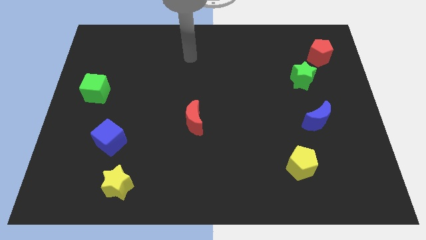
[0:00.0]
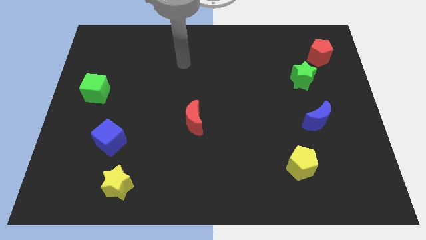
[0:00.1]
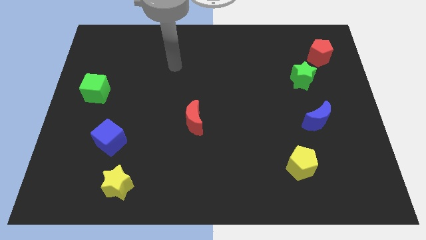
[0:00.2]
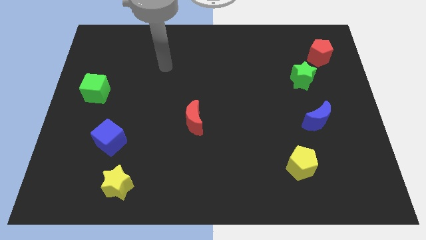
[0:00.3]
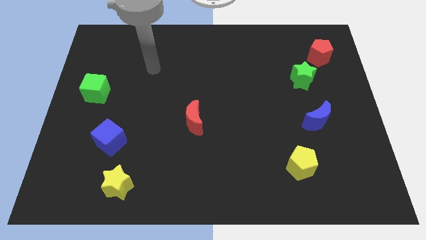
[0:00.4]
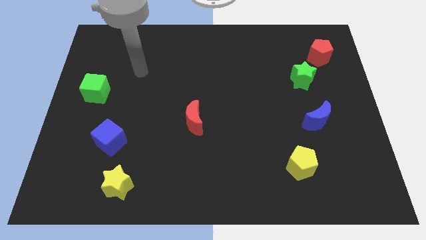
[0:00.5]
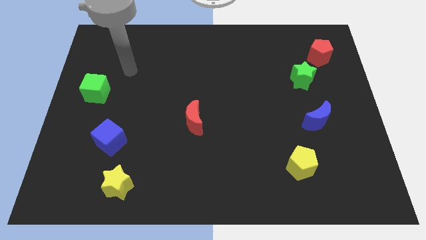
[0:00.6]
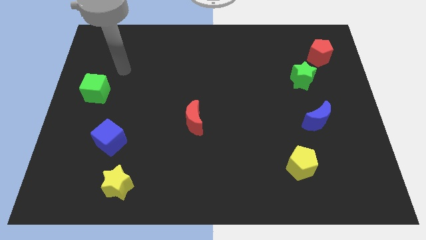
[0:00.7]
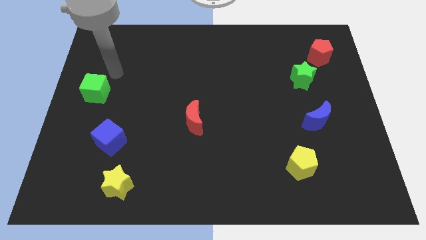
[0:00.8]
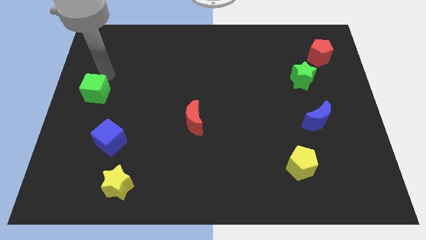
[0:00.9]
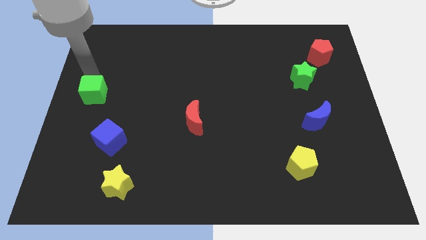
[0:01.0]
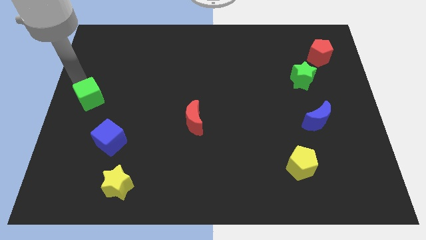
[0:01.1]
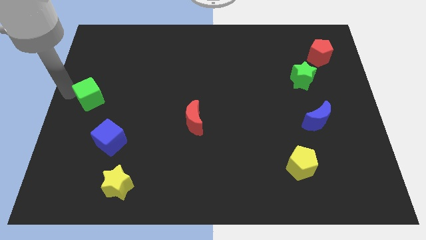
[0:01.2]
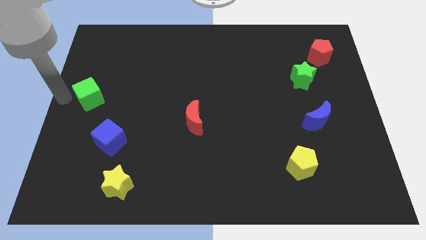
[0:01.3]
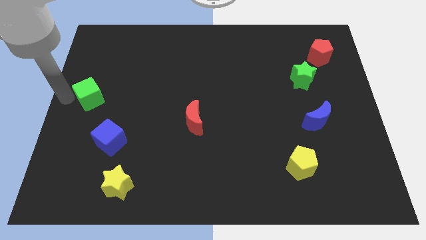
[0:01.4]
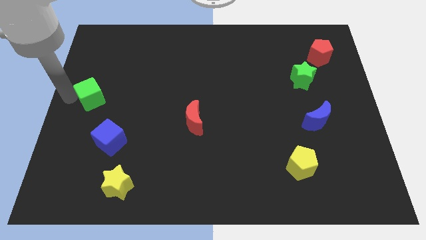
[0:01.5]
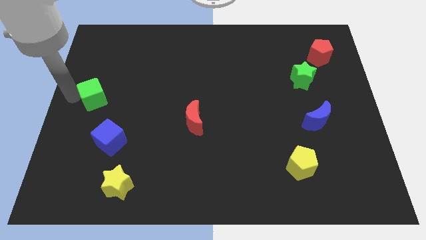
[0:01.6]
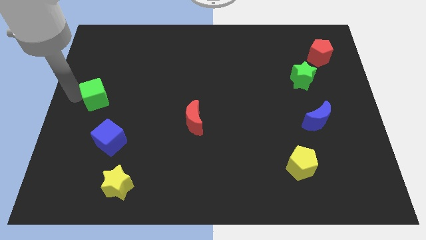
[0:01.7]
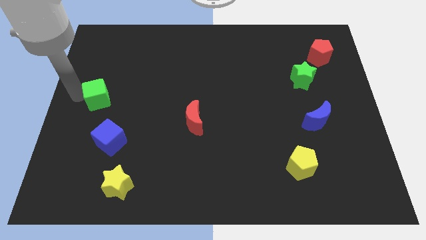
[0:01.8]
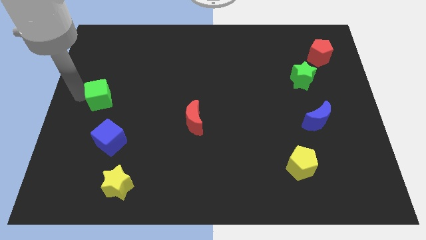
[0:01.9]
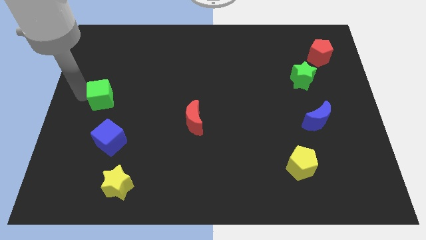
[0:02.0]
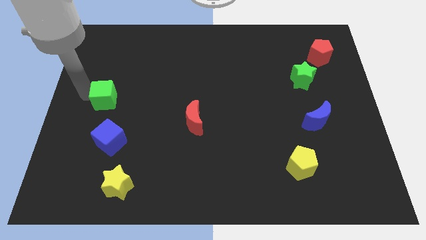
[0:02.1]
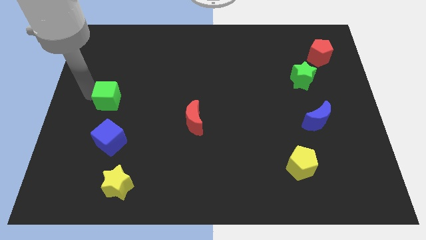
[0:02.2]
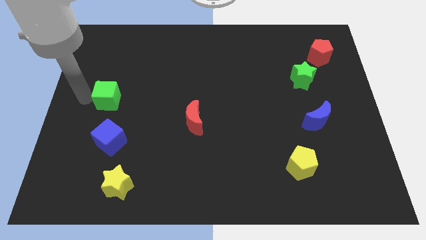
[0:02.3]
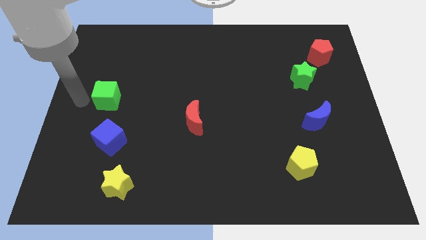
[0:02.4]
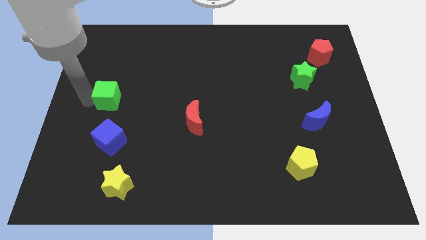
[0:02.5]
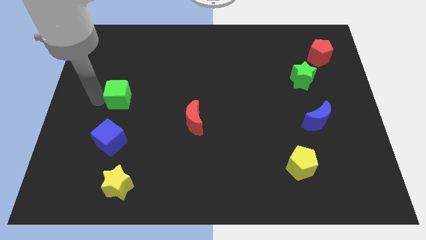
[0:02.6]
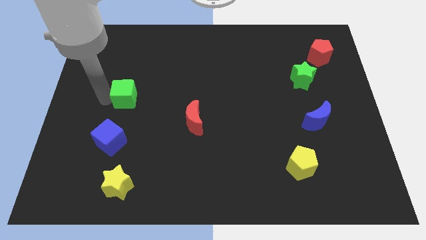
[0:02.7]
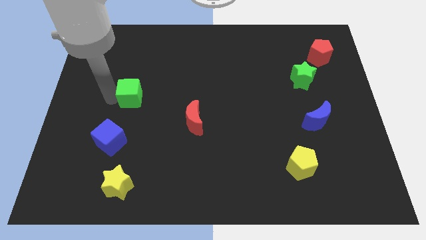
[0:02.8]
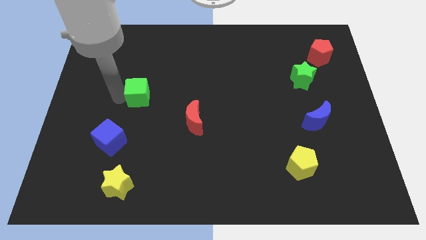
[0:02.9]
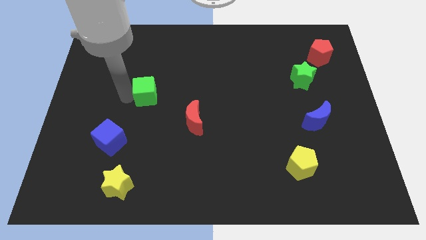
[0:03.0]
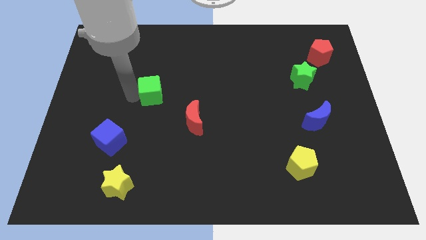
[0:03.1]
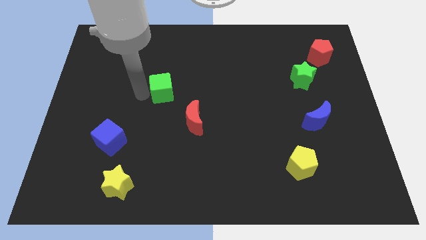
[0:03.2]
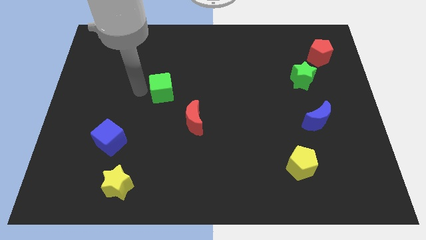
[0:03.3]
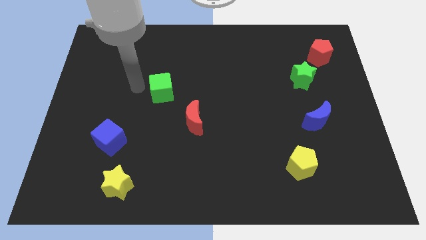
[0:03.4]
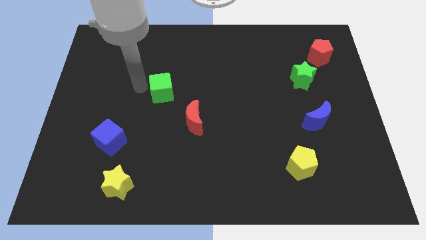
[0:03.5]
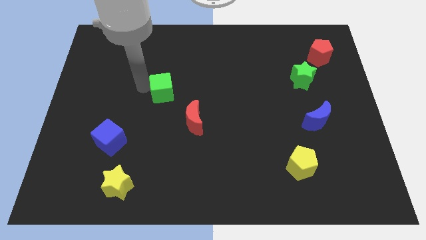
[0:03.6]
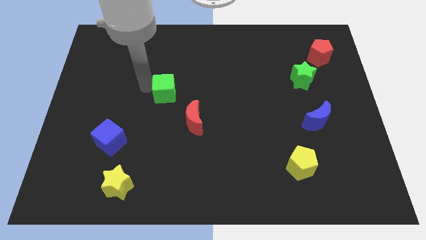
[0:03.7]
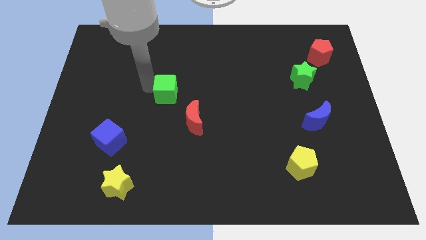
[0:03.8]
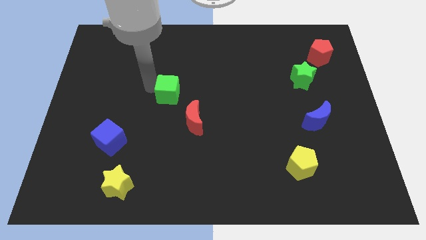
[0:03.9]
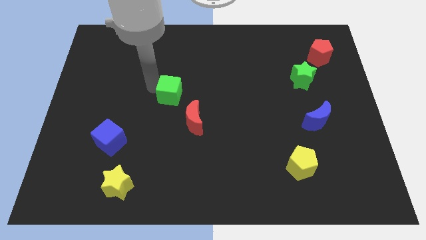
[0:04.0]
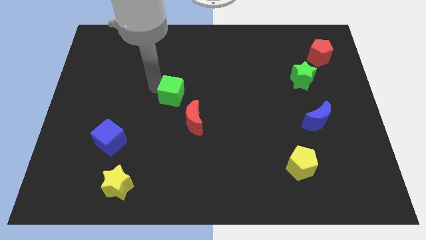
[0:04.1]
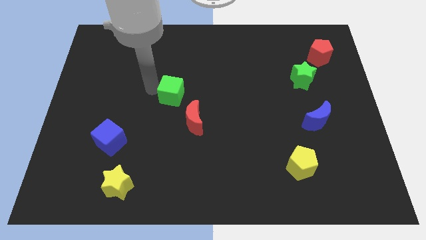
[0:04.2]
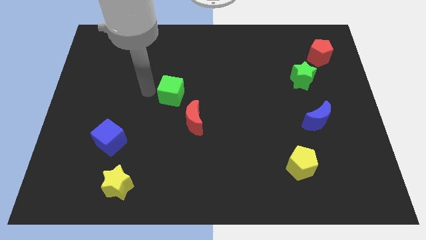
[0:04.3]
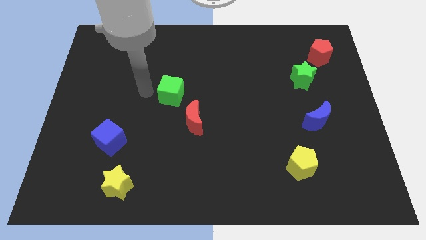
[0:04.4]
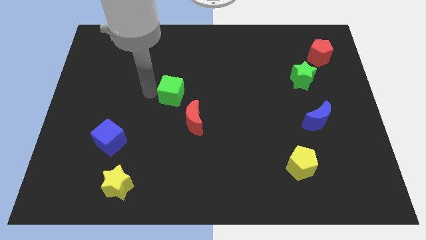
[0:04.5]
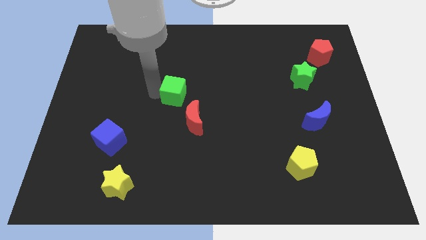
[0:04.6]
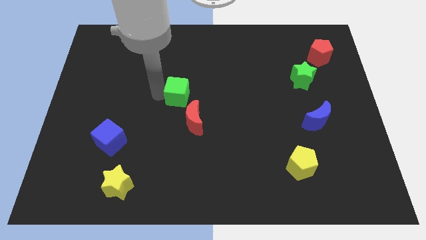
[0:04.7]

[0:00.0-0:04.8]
move the green cube right

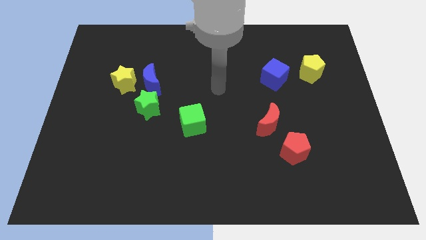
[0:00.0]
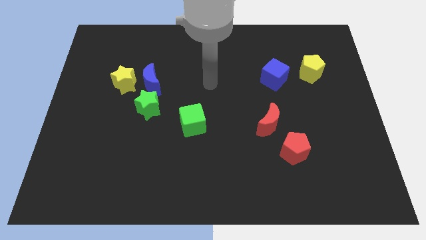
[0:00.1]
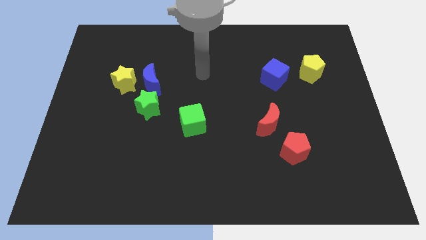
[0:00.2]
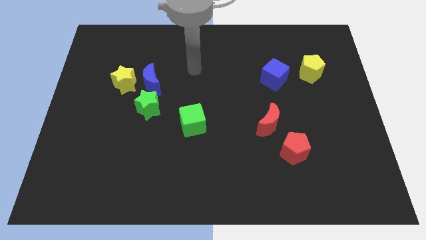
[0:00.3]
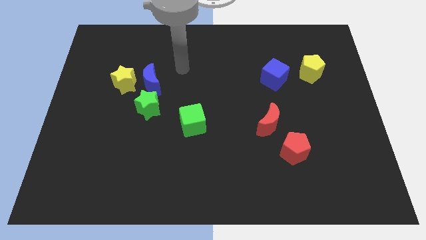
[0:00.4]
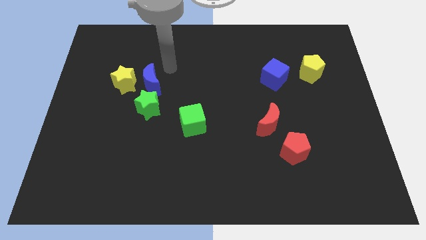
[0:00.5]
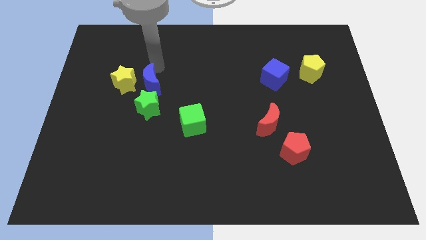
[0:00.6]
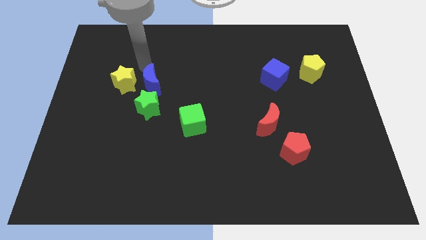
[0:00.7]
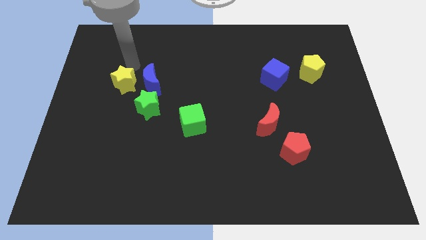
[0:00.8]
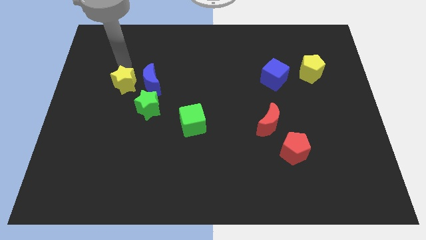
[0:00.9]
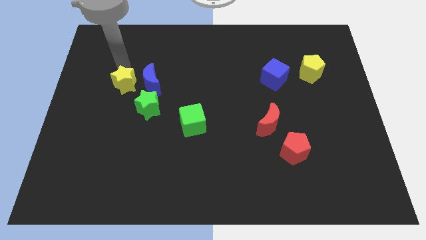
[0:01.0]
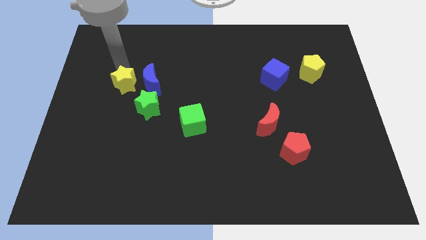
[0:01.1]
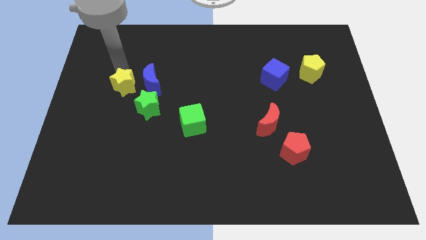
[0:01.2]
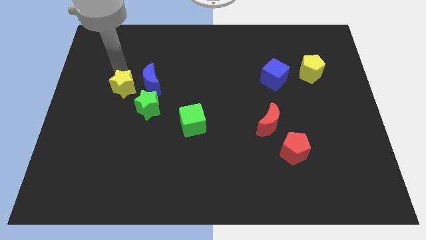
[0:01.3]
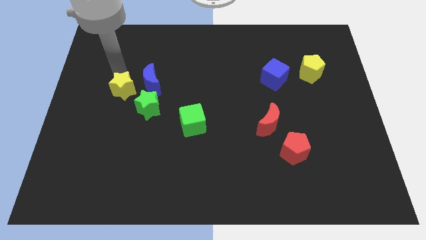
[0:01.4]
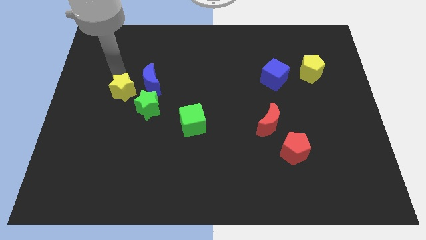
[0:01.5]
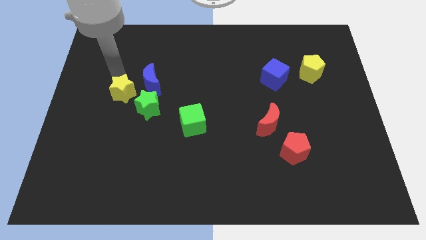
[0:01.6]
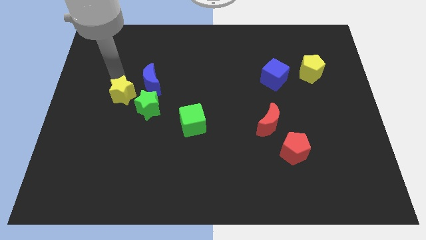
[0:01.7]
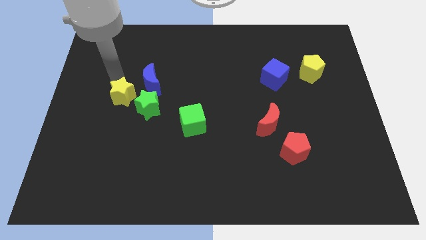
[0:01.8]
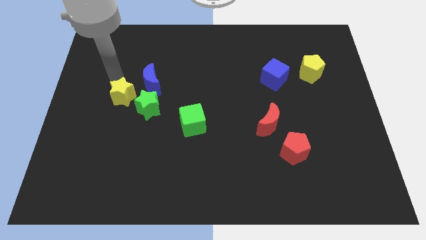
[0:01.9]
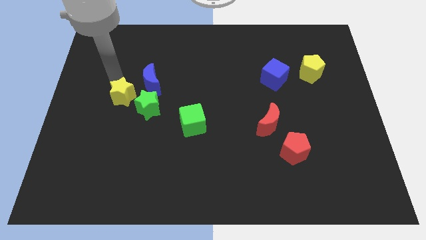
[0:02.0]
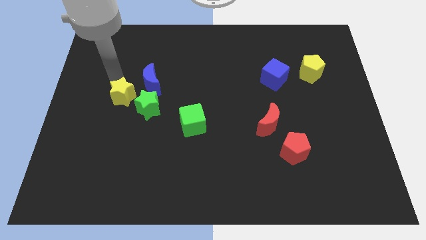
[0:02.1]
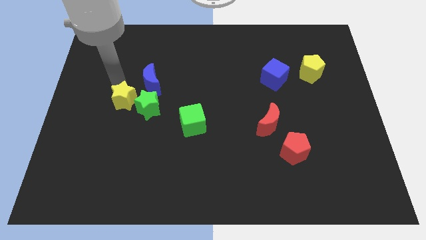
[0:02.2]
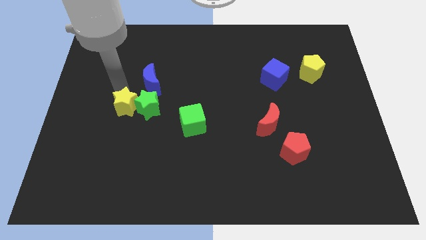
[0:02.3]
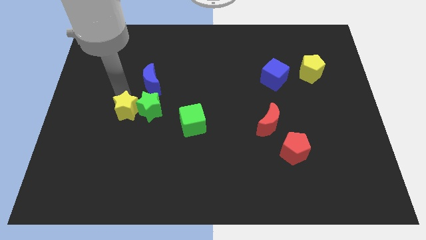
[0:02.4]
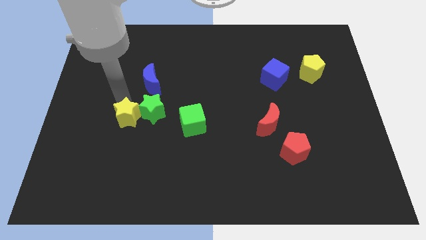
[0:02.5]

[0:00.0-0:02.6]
push the yellow star somewhat down and to the right

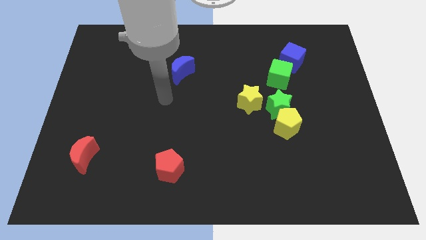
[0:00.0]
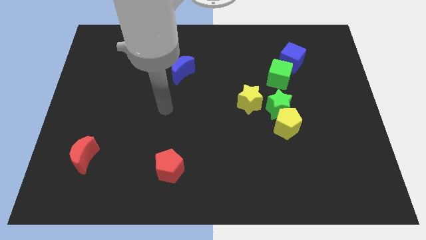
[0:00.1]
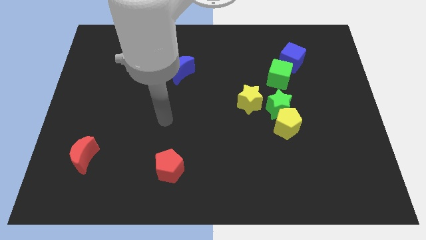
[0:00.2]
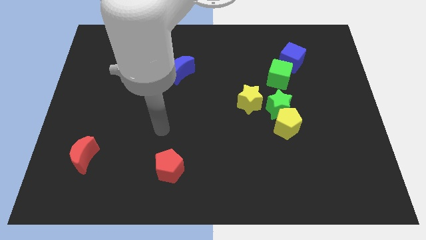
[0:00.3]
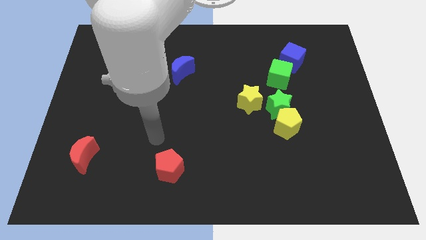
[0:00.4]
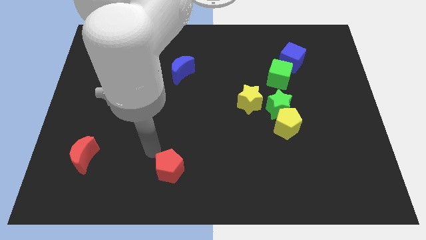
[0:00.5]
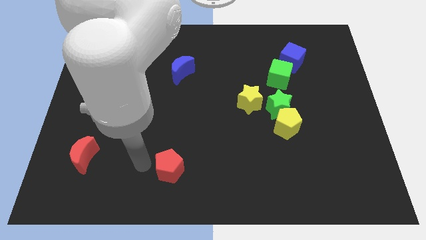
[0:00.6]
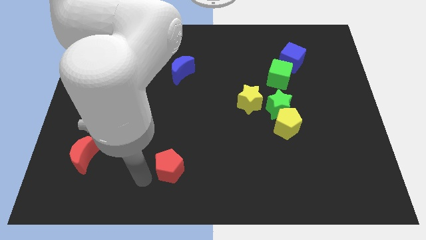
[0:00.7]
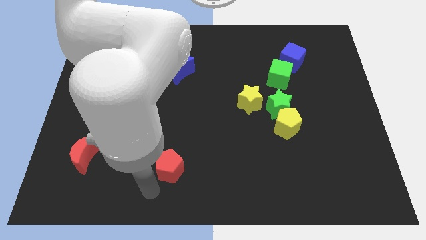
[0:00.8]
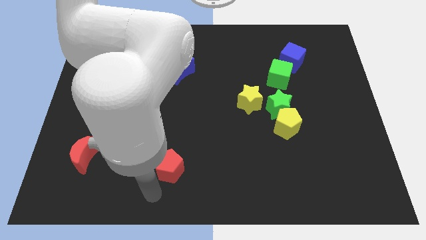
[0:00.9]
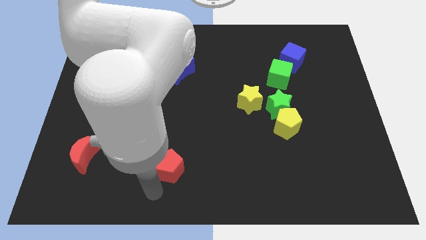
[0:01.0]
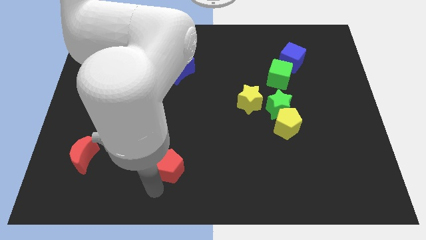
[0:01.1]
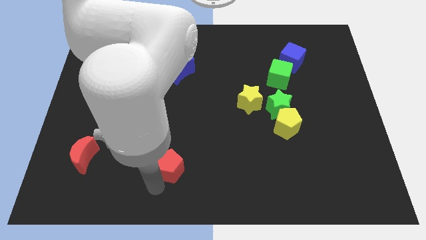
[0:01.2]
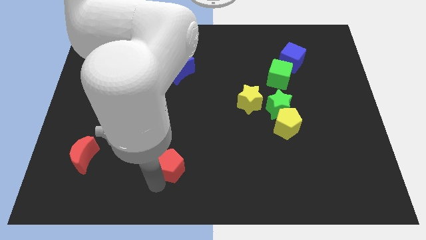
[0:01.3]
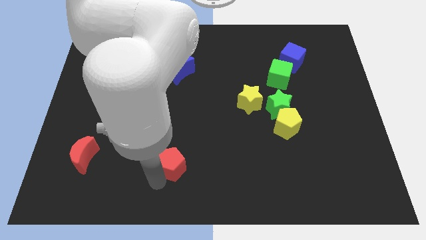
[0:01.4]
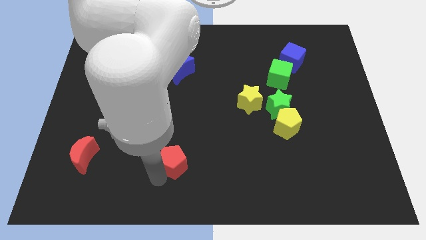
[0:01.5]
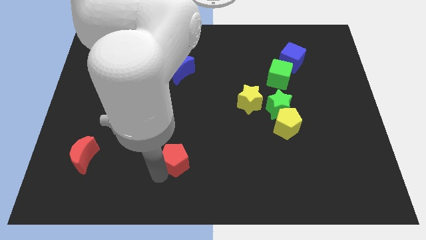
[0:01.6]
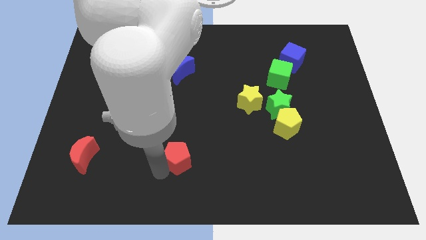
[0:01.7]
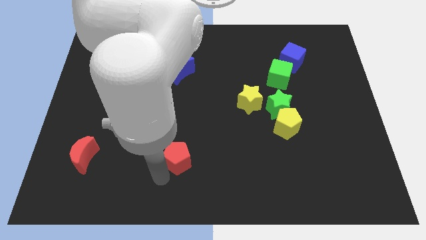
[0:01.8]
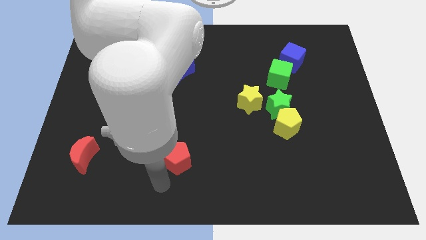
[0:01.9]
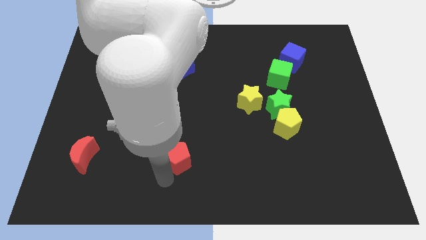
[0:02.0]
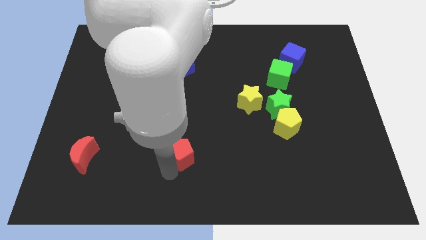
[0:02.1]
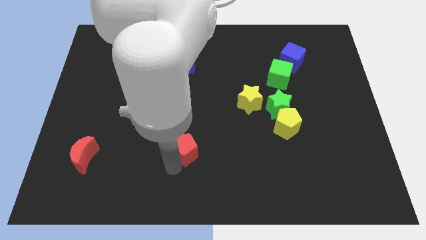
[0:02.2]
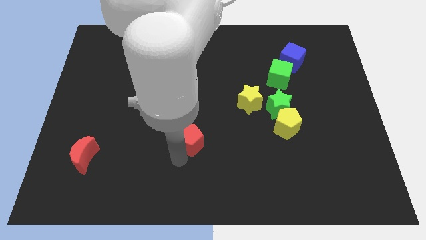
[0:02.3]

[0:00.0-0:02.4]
move the red pentagon a little bit up and right
